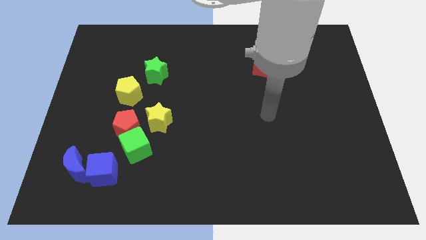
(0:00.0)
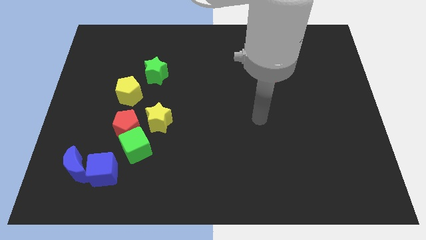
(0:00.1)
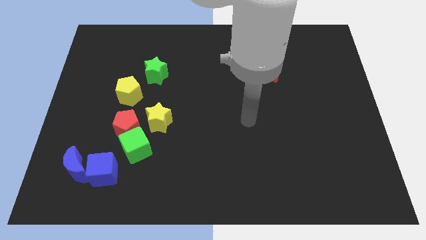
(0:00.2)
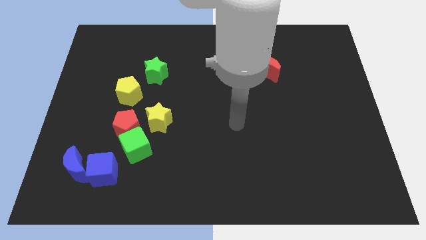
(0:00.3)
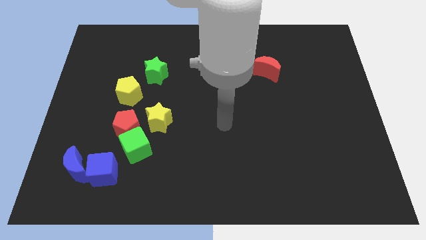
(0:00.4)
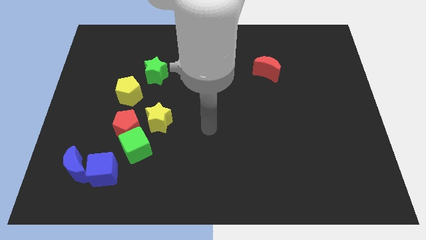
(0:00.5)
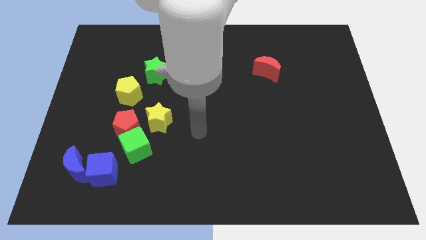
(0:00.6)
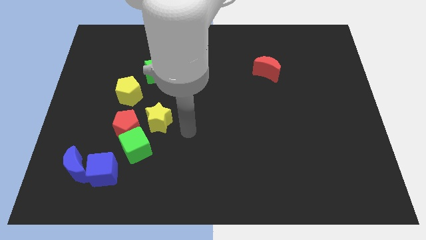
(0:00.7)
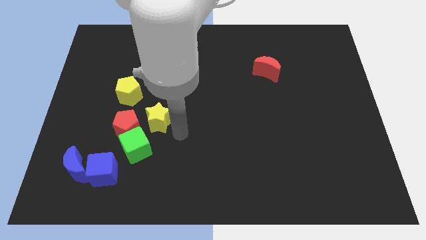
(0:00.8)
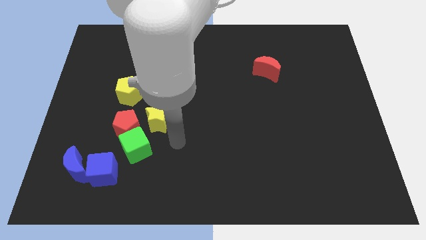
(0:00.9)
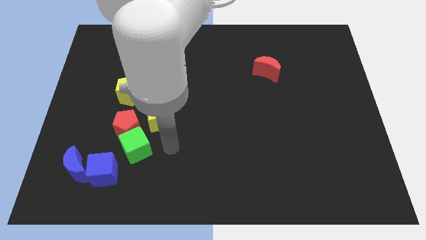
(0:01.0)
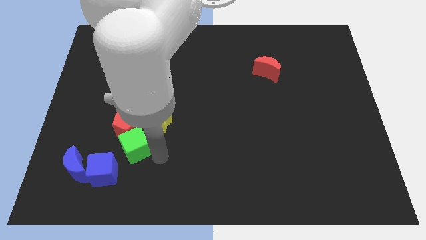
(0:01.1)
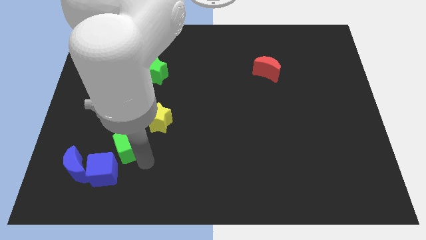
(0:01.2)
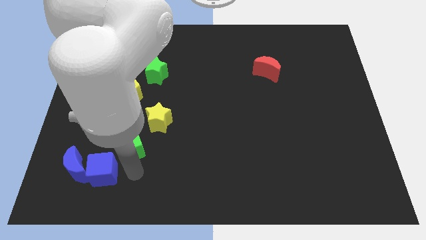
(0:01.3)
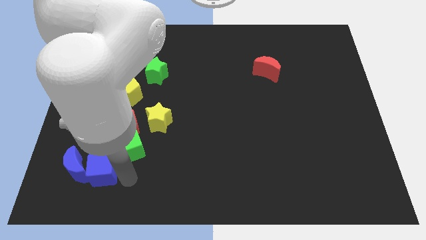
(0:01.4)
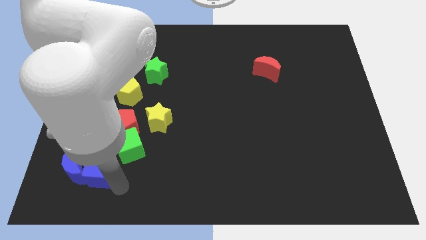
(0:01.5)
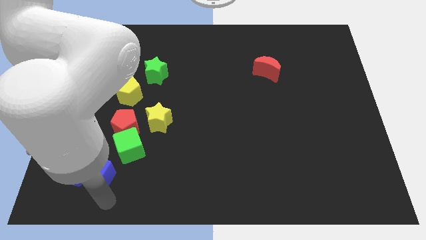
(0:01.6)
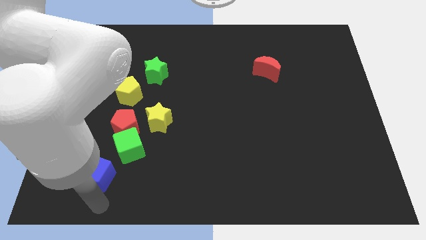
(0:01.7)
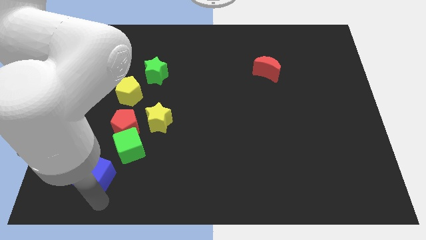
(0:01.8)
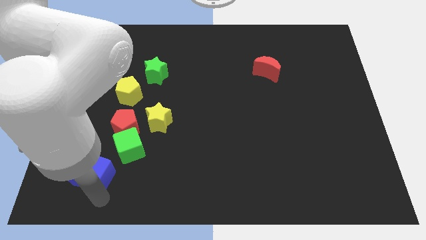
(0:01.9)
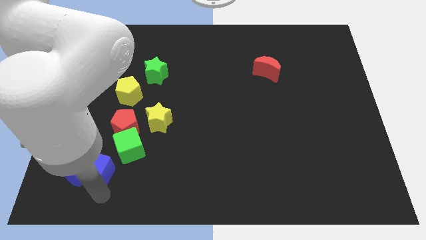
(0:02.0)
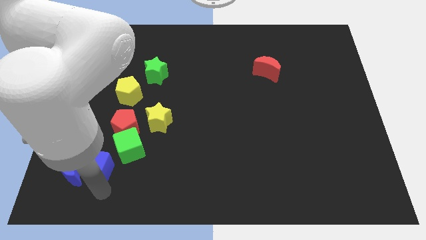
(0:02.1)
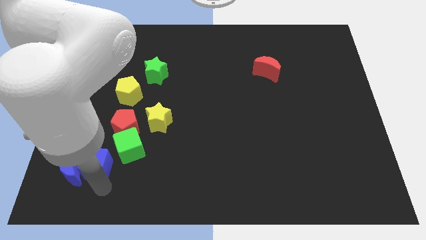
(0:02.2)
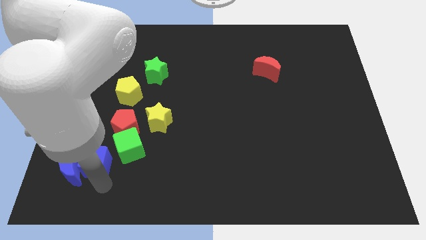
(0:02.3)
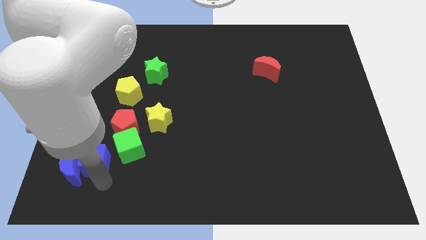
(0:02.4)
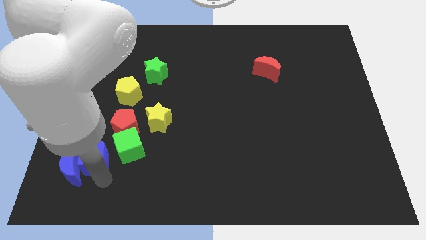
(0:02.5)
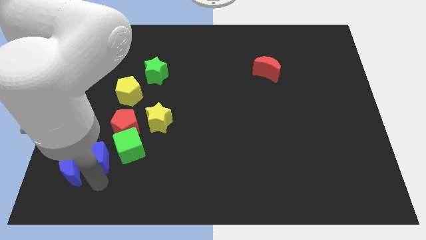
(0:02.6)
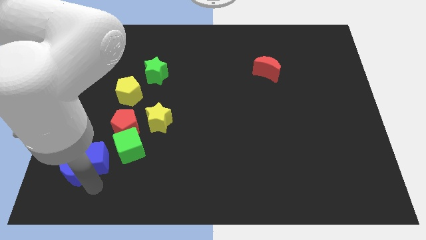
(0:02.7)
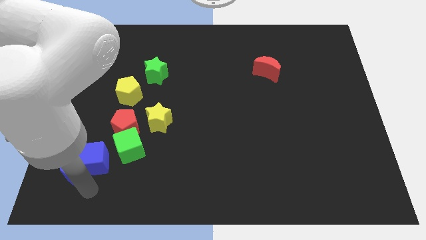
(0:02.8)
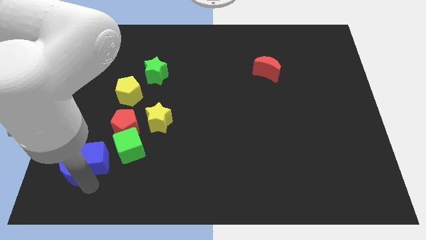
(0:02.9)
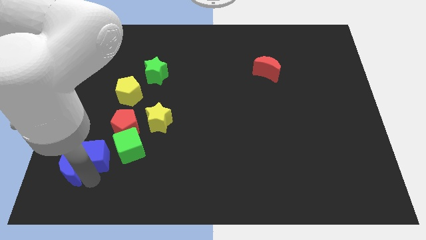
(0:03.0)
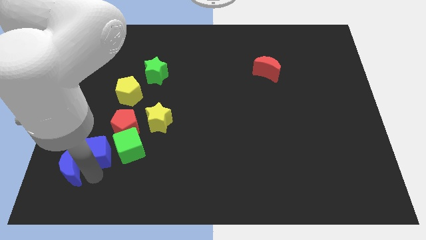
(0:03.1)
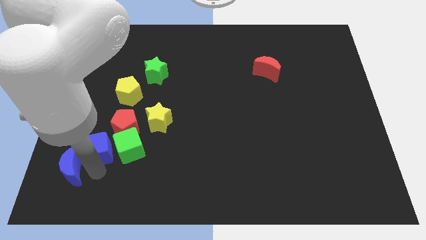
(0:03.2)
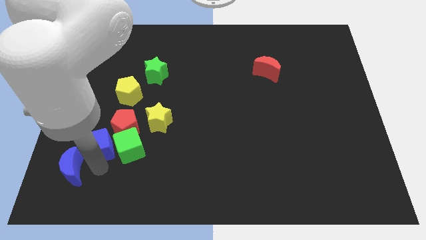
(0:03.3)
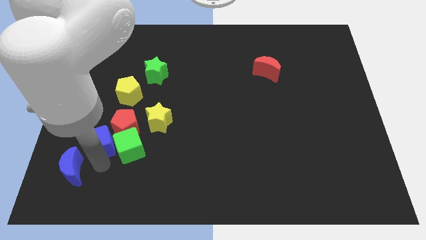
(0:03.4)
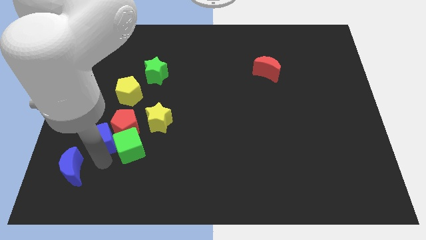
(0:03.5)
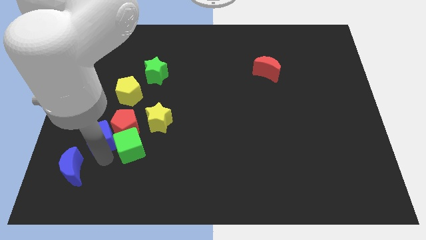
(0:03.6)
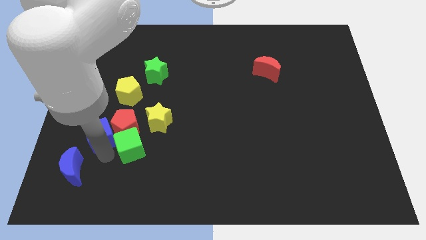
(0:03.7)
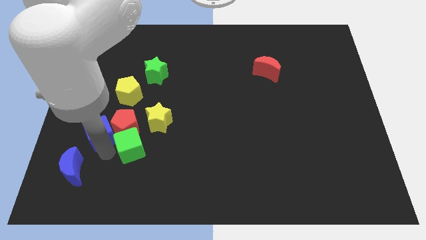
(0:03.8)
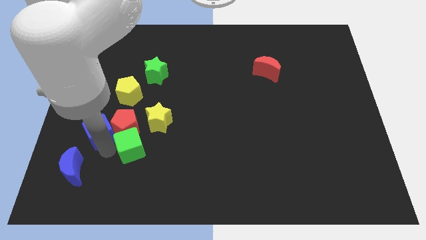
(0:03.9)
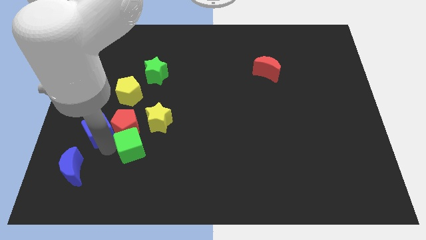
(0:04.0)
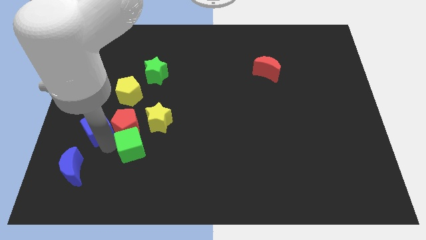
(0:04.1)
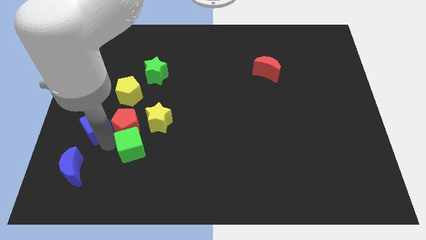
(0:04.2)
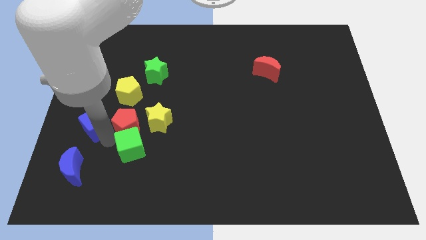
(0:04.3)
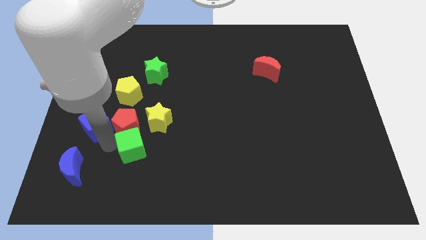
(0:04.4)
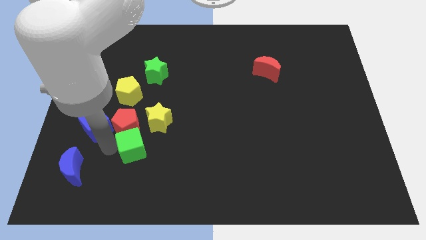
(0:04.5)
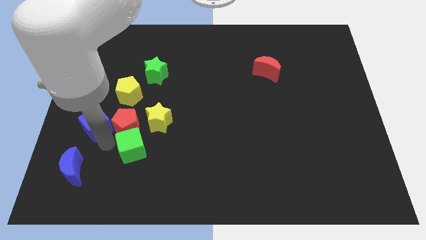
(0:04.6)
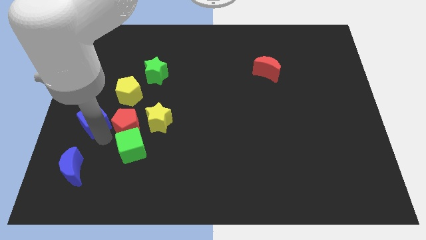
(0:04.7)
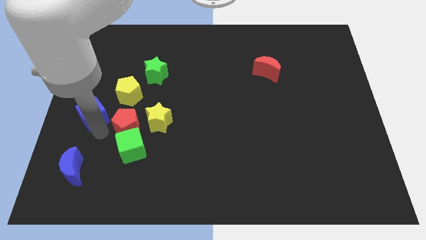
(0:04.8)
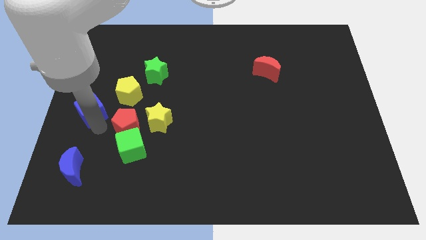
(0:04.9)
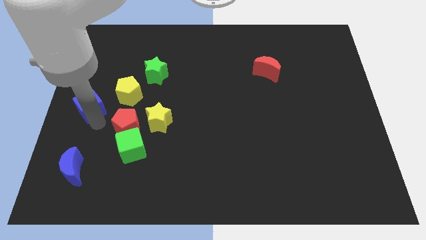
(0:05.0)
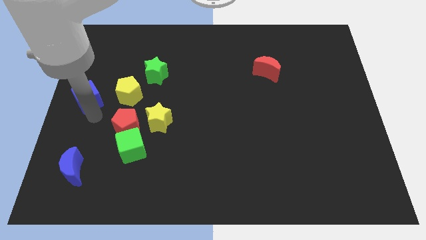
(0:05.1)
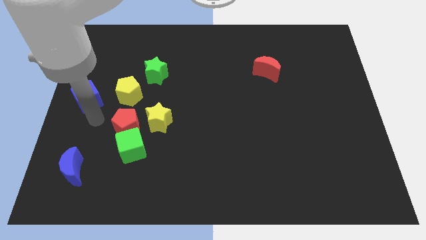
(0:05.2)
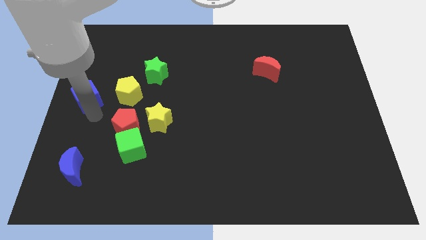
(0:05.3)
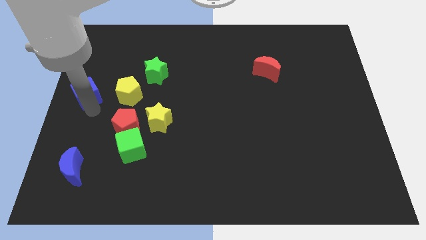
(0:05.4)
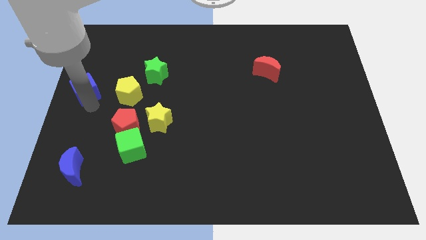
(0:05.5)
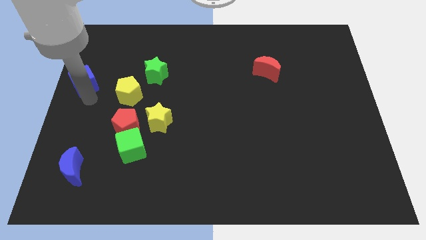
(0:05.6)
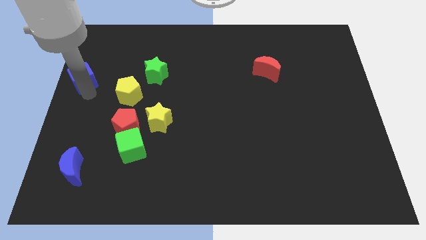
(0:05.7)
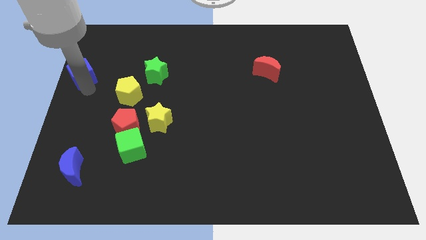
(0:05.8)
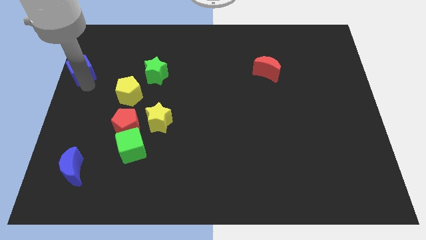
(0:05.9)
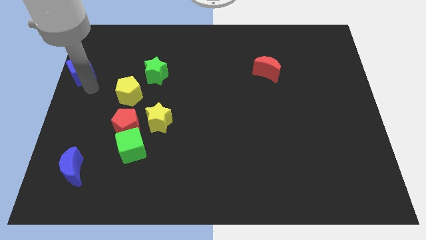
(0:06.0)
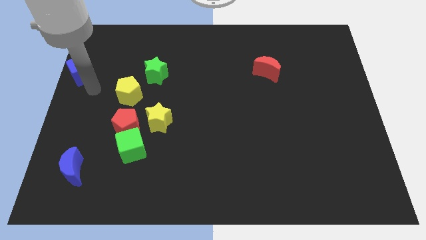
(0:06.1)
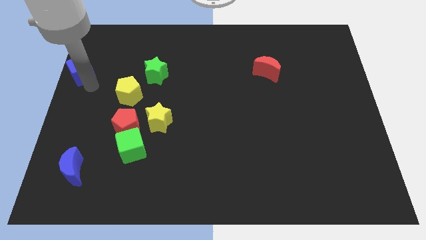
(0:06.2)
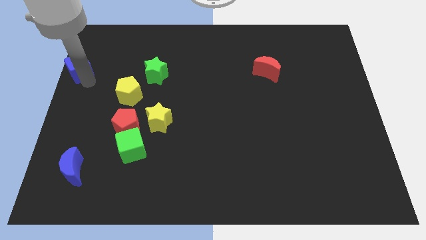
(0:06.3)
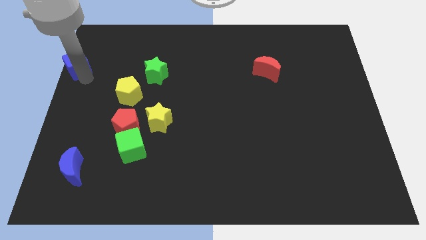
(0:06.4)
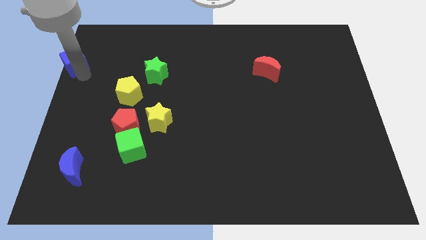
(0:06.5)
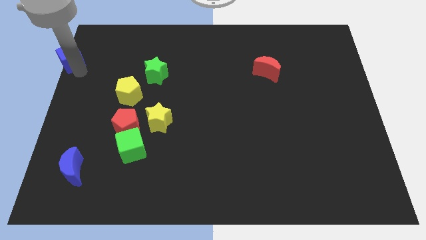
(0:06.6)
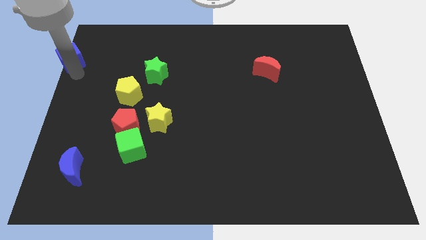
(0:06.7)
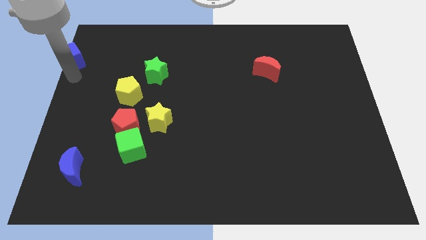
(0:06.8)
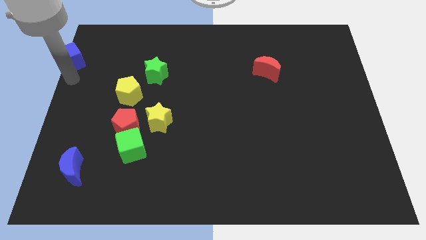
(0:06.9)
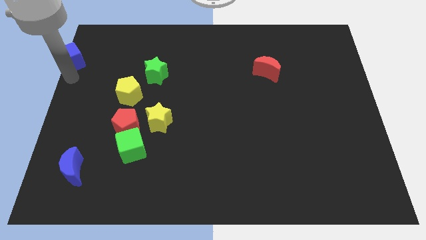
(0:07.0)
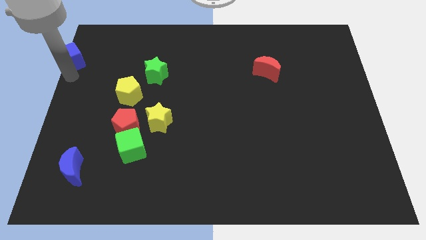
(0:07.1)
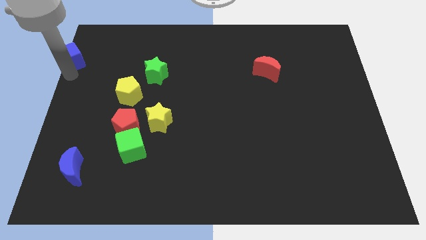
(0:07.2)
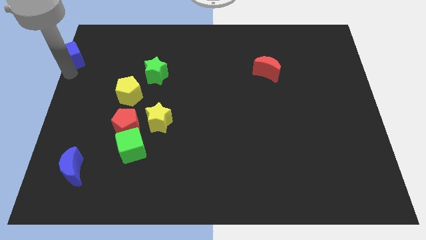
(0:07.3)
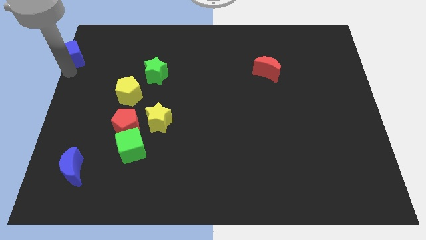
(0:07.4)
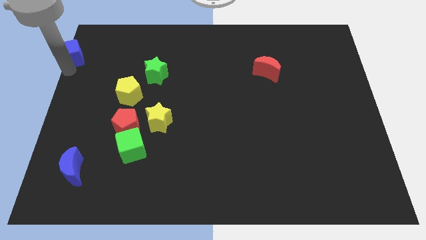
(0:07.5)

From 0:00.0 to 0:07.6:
put the blue cube to the top left of the board

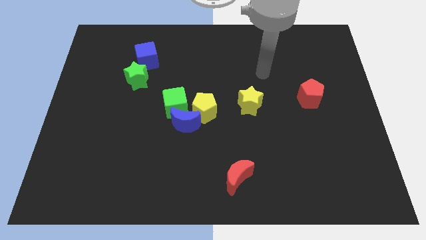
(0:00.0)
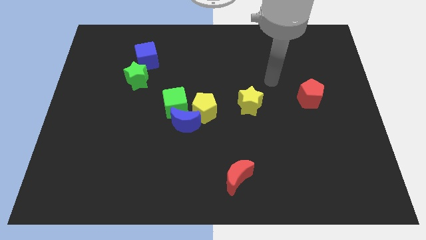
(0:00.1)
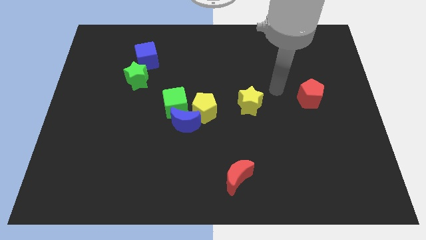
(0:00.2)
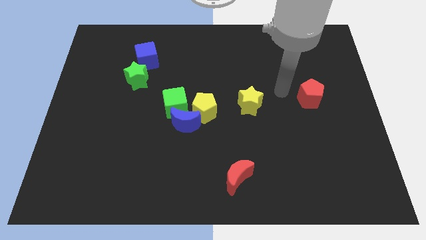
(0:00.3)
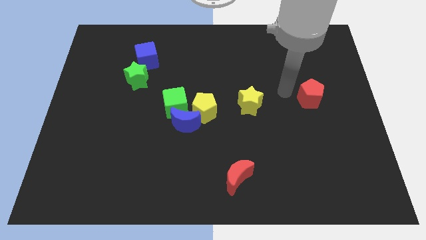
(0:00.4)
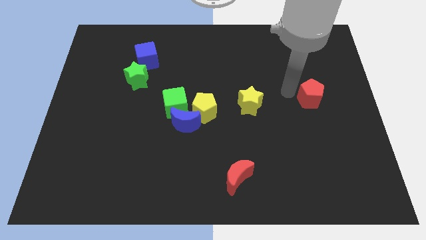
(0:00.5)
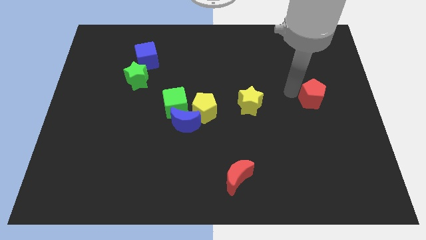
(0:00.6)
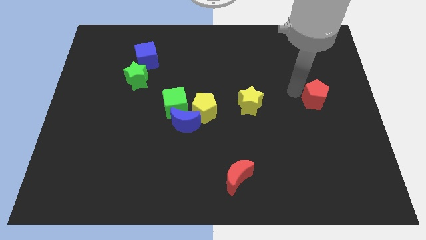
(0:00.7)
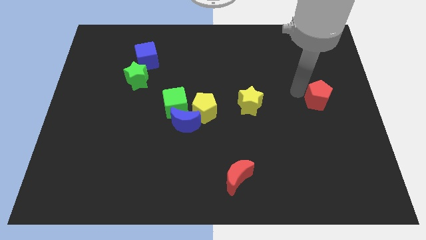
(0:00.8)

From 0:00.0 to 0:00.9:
move the red pentagon to the center right
